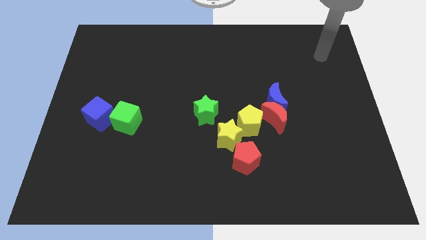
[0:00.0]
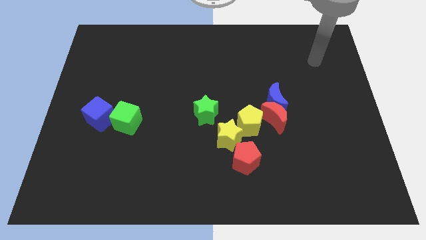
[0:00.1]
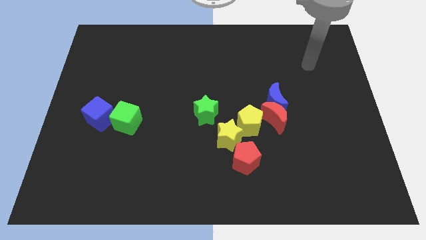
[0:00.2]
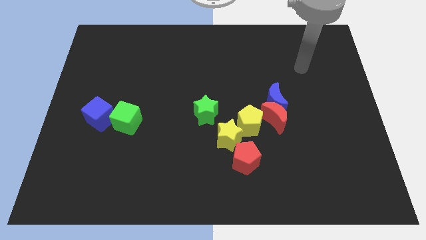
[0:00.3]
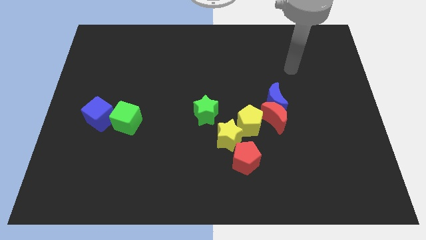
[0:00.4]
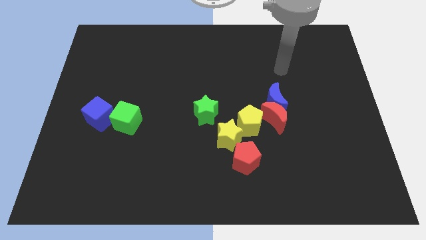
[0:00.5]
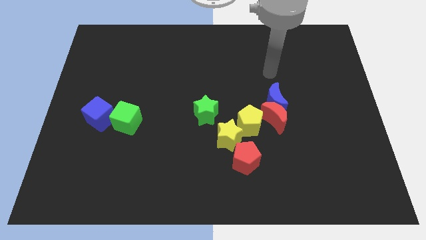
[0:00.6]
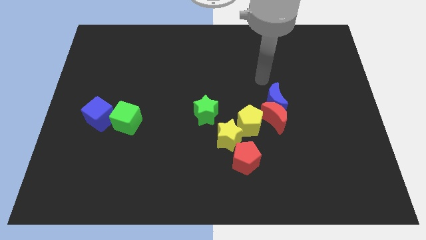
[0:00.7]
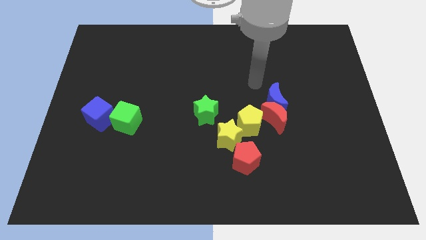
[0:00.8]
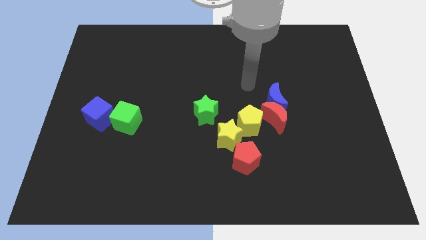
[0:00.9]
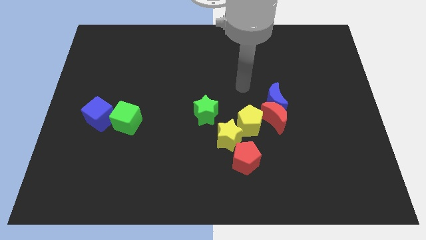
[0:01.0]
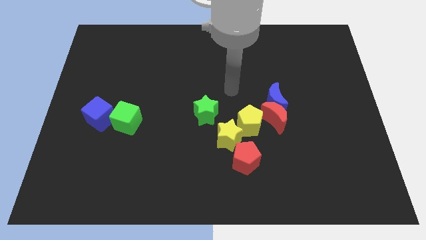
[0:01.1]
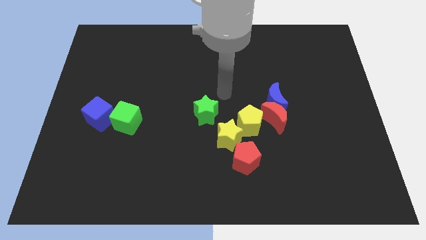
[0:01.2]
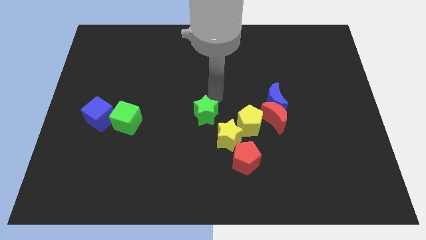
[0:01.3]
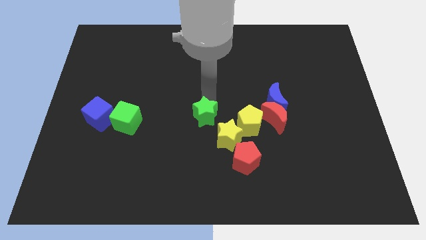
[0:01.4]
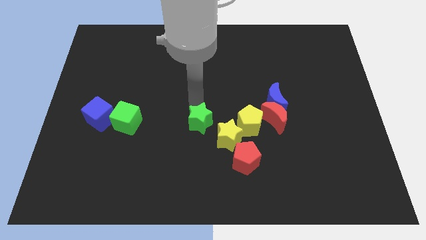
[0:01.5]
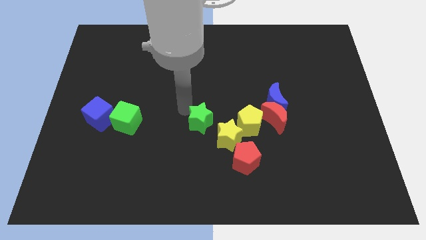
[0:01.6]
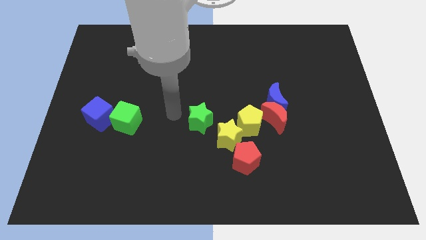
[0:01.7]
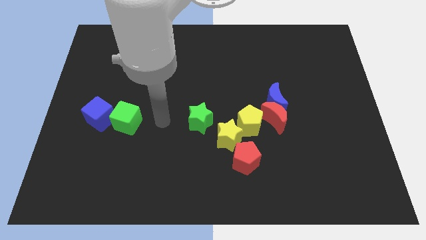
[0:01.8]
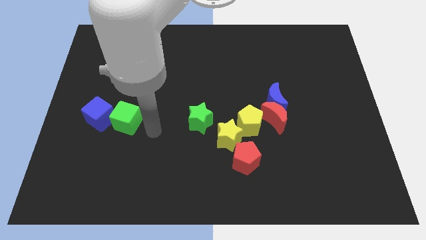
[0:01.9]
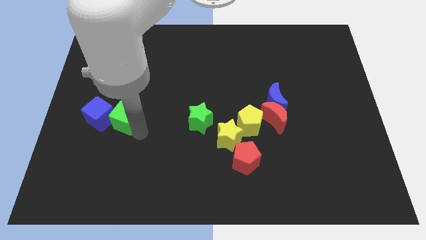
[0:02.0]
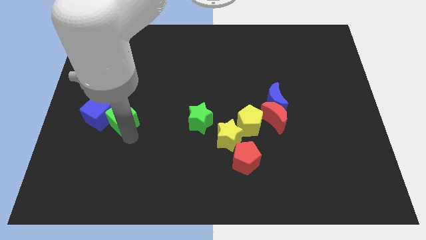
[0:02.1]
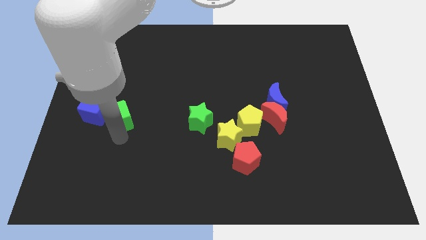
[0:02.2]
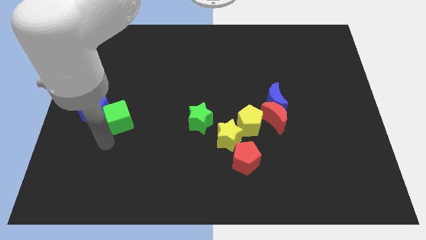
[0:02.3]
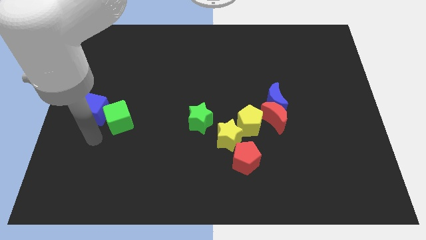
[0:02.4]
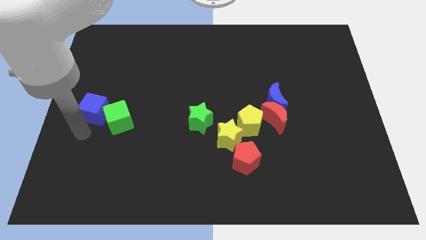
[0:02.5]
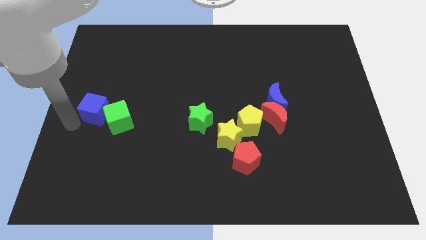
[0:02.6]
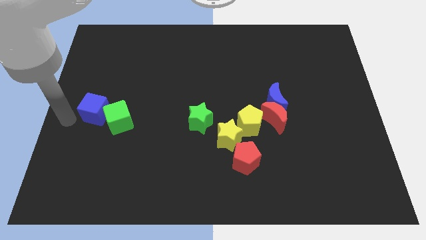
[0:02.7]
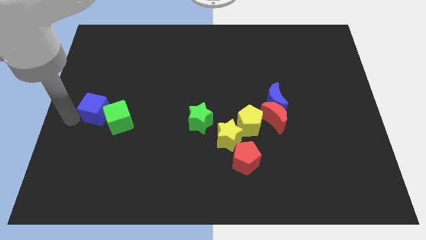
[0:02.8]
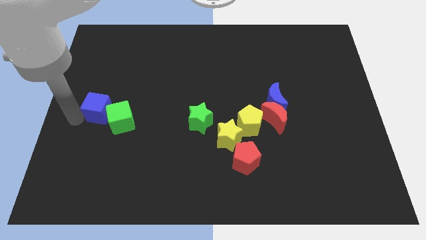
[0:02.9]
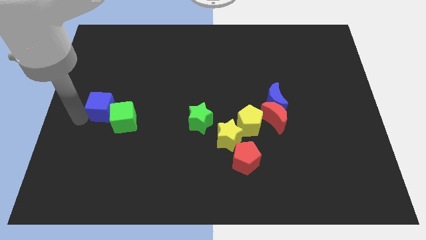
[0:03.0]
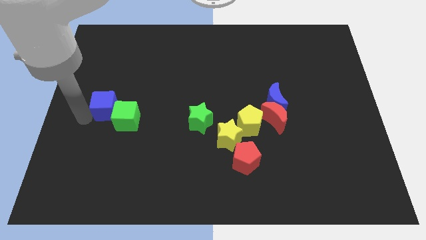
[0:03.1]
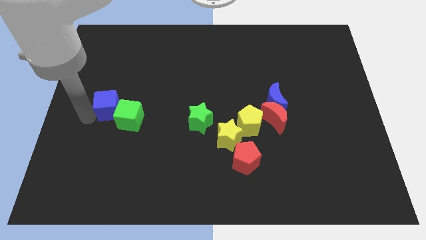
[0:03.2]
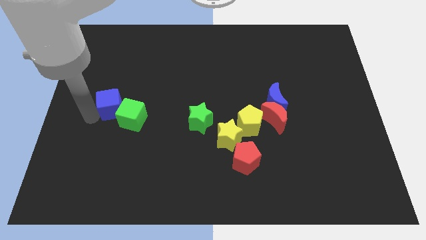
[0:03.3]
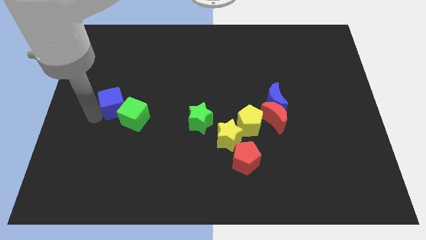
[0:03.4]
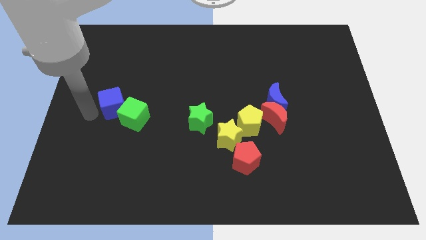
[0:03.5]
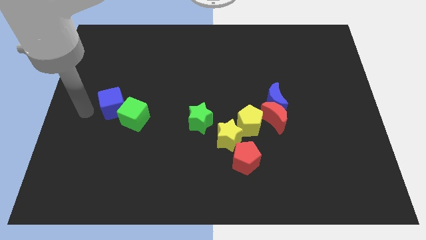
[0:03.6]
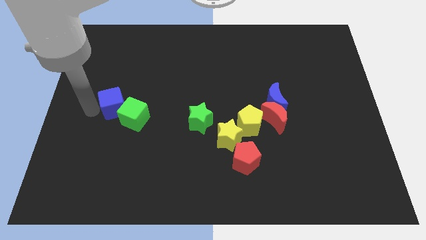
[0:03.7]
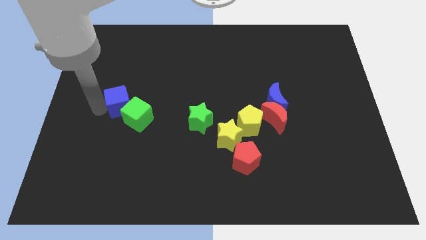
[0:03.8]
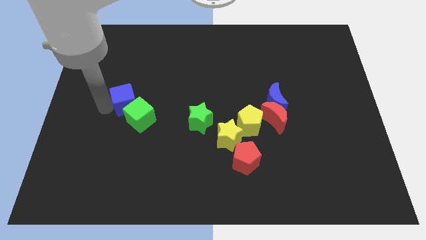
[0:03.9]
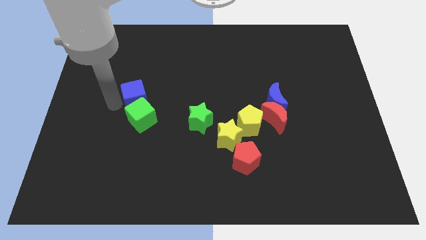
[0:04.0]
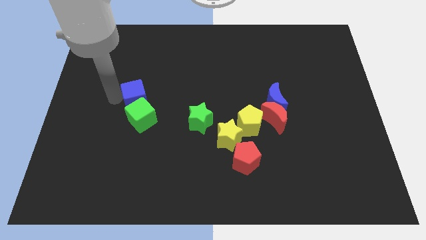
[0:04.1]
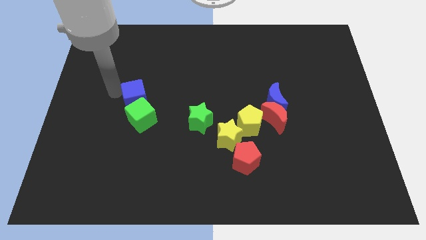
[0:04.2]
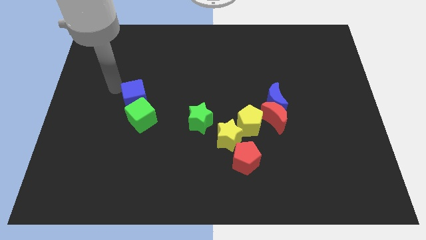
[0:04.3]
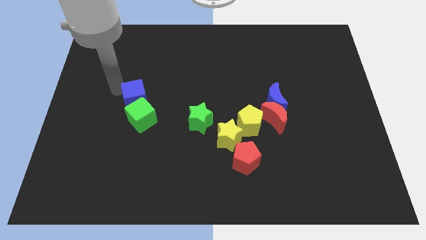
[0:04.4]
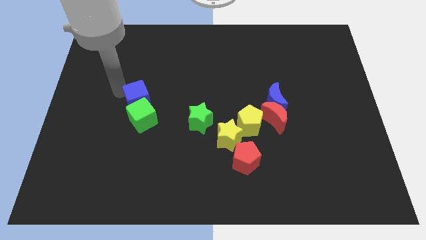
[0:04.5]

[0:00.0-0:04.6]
slide the blue cube somewhat to the right

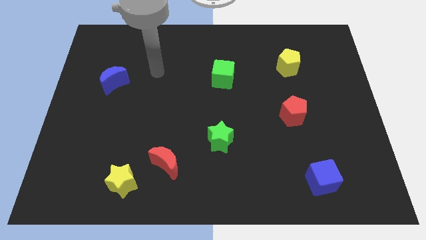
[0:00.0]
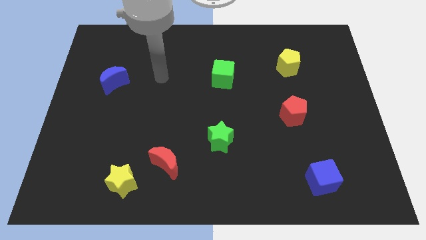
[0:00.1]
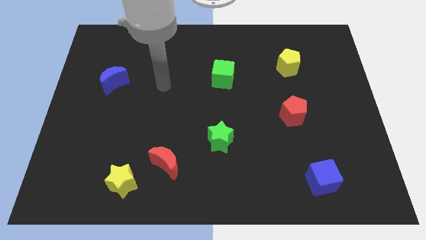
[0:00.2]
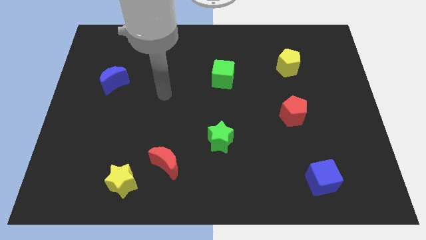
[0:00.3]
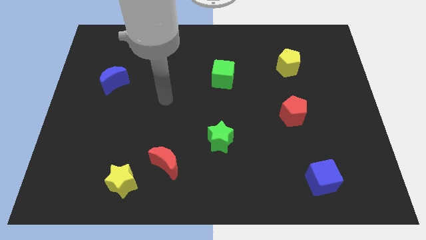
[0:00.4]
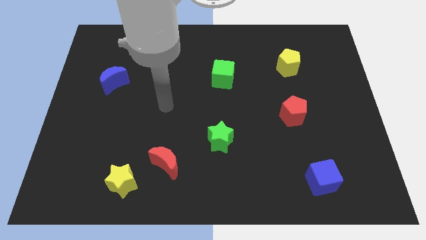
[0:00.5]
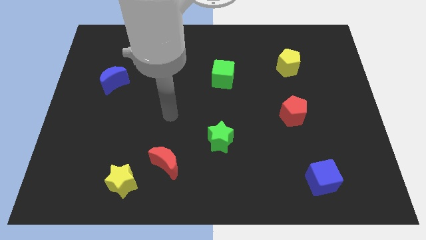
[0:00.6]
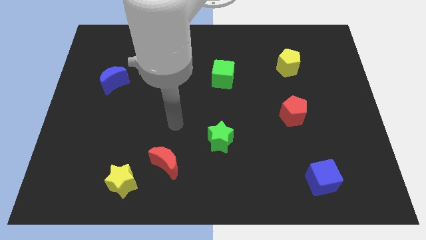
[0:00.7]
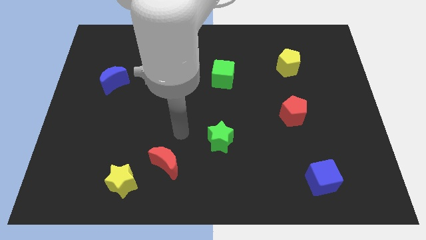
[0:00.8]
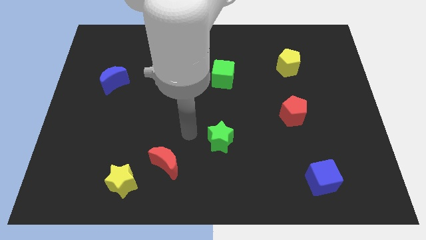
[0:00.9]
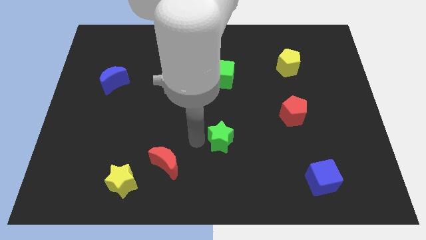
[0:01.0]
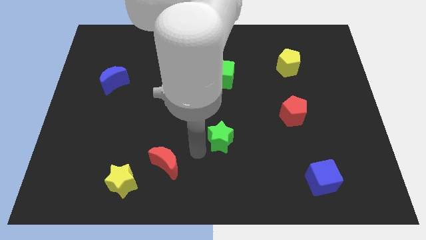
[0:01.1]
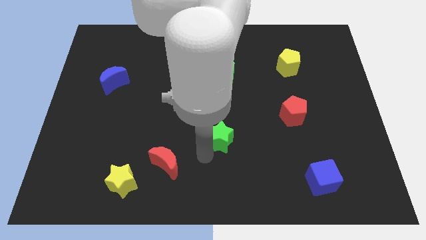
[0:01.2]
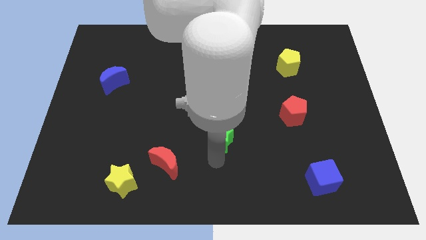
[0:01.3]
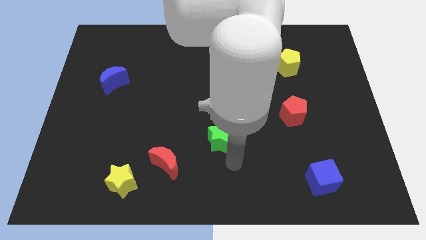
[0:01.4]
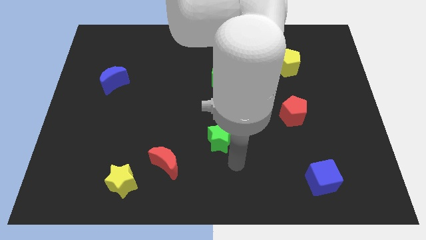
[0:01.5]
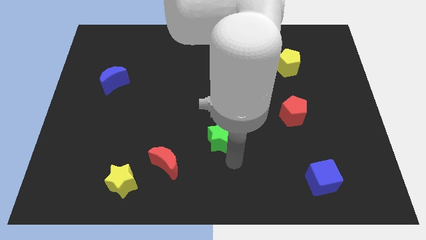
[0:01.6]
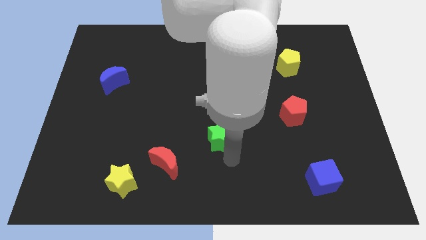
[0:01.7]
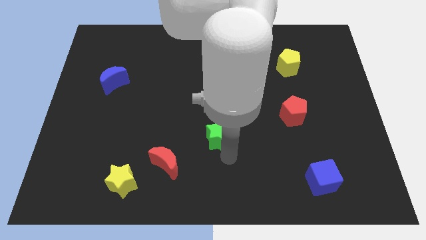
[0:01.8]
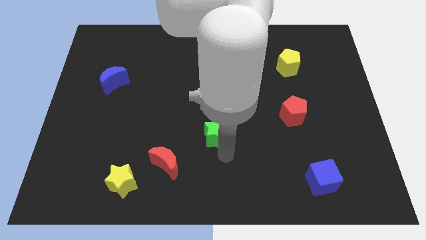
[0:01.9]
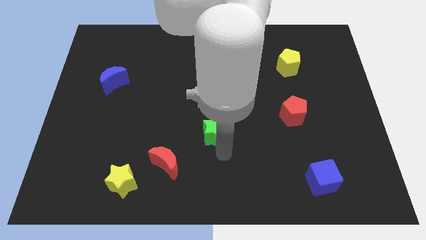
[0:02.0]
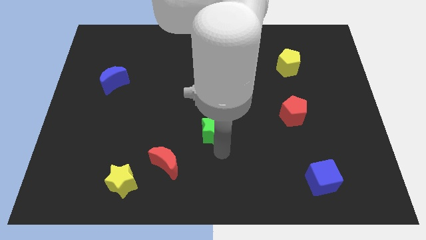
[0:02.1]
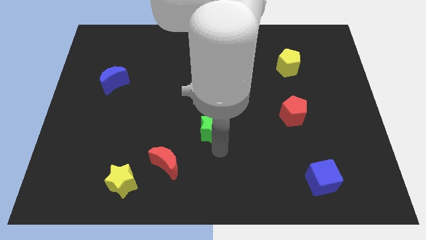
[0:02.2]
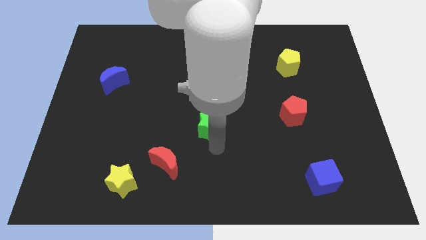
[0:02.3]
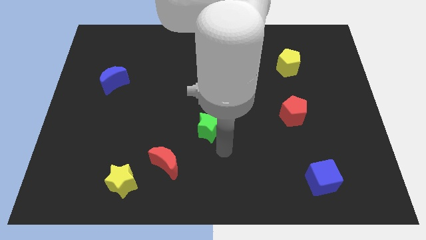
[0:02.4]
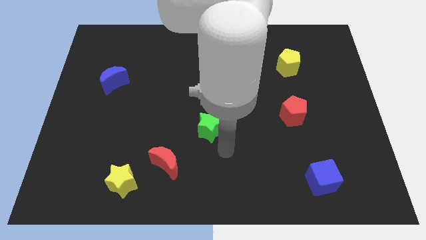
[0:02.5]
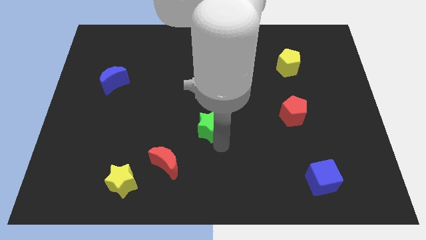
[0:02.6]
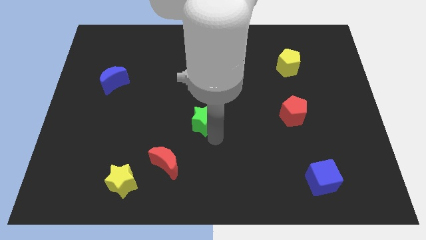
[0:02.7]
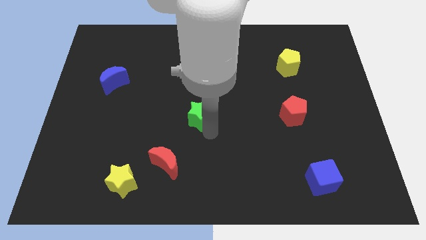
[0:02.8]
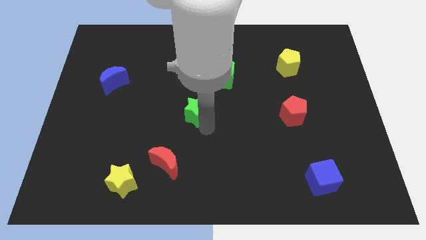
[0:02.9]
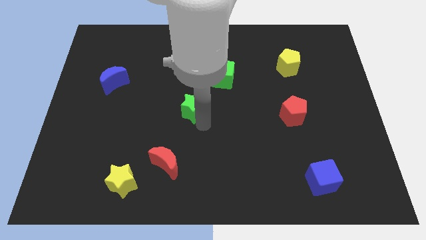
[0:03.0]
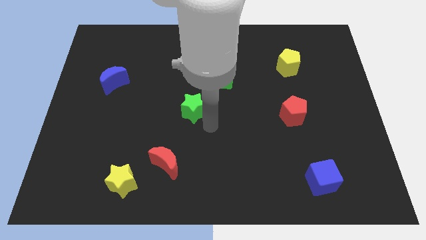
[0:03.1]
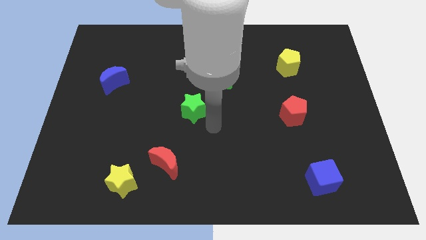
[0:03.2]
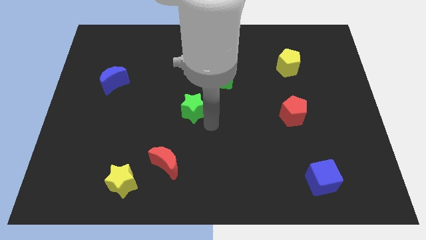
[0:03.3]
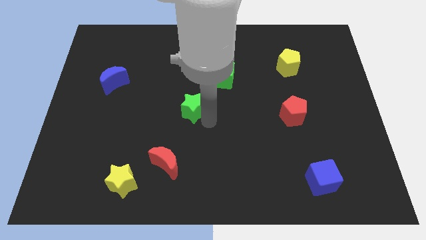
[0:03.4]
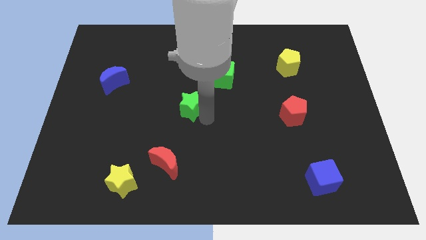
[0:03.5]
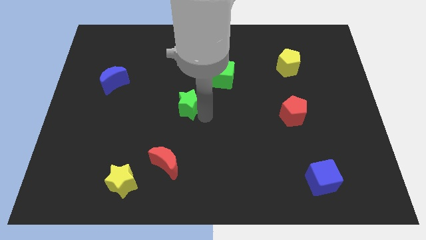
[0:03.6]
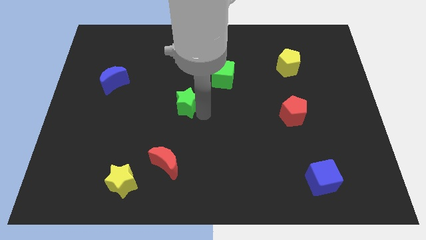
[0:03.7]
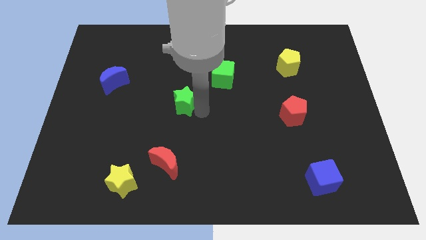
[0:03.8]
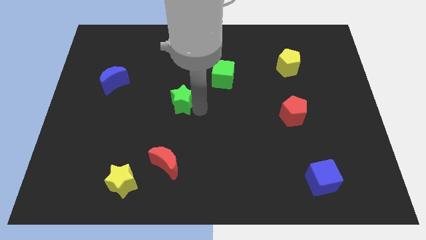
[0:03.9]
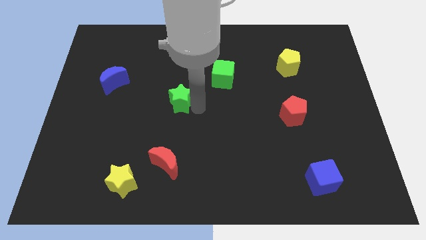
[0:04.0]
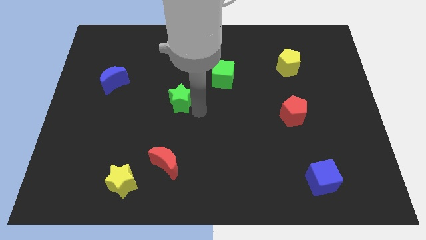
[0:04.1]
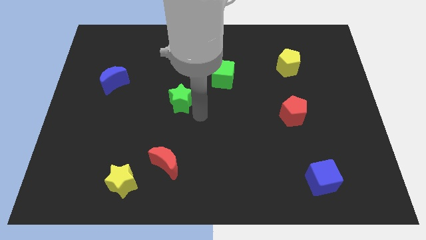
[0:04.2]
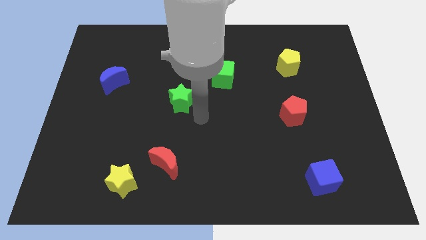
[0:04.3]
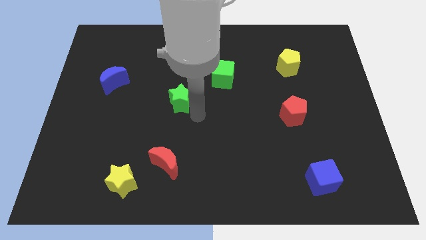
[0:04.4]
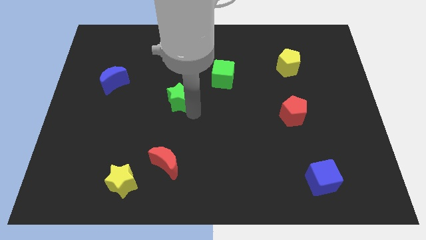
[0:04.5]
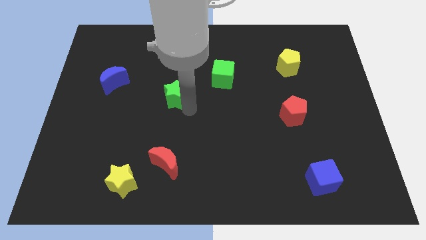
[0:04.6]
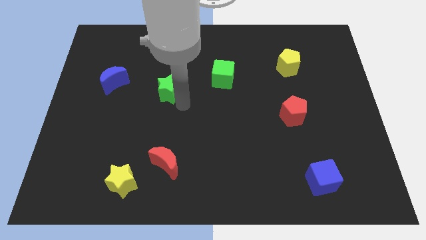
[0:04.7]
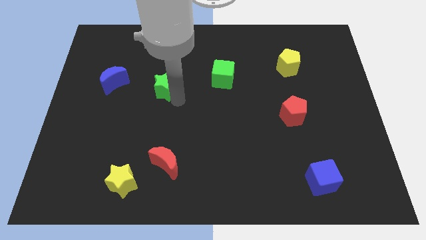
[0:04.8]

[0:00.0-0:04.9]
move the green star upwards and to the left diagonally
